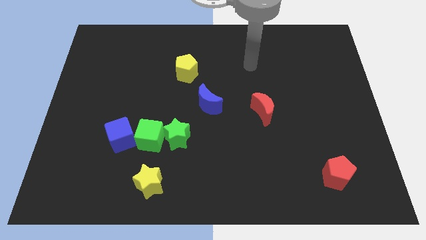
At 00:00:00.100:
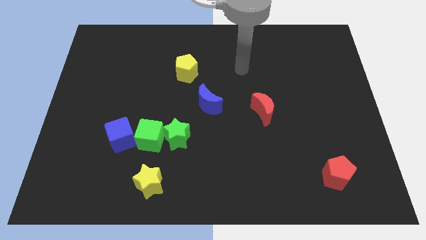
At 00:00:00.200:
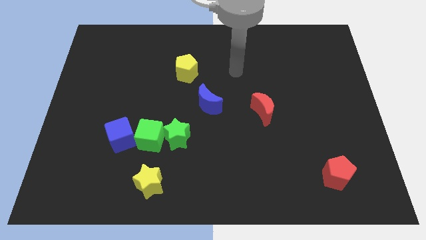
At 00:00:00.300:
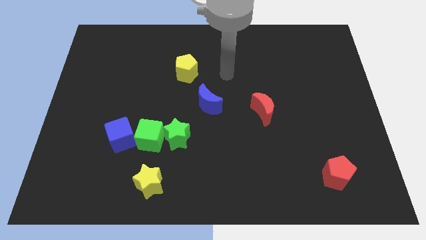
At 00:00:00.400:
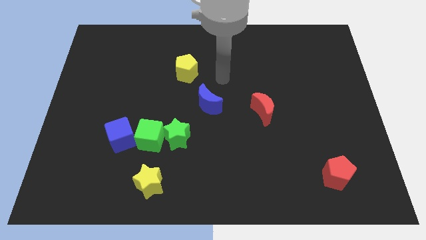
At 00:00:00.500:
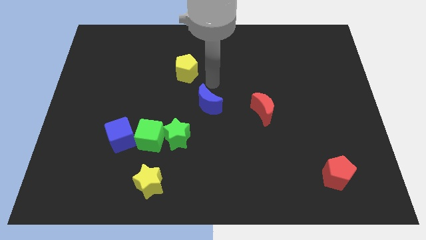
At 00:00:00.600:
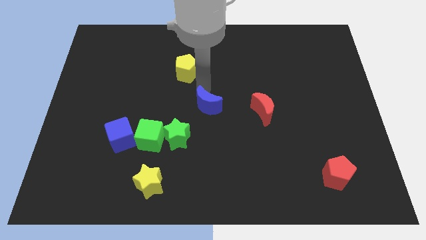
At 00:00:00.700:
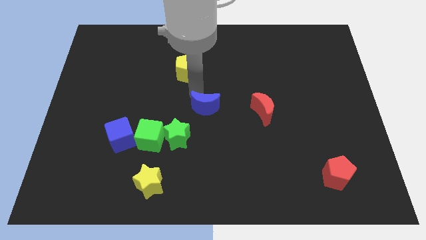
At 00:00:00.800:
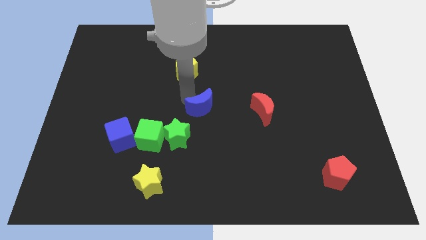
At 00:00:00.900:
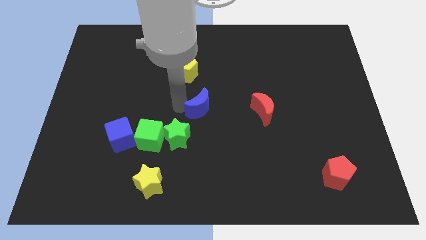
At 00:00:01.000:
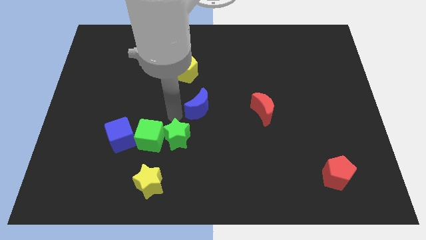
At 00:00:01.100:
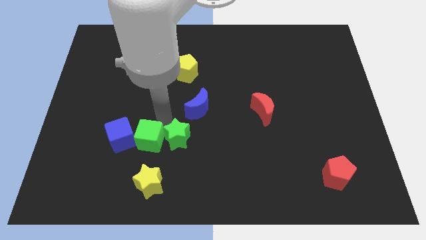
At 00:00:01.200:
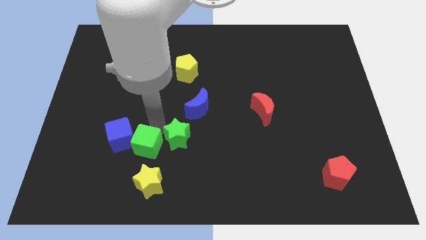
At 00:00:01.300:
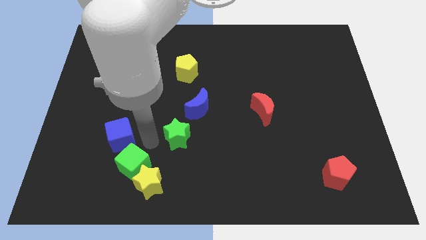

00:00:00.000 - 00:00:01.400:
separate the green star from the green cube

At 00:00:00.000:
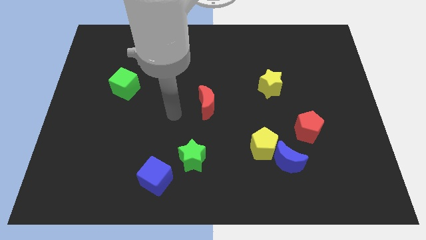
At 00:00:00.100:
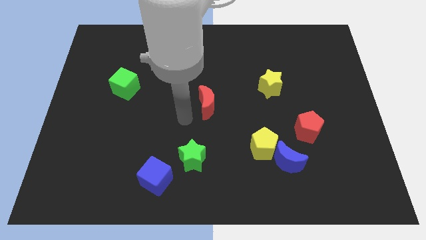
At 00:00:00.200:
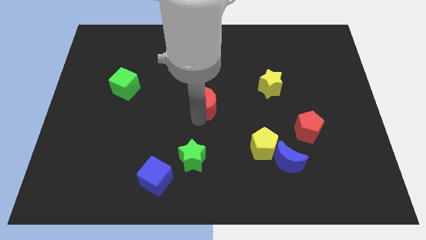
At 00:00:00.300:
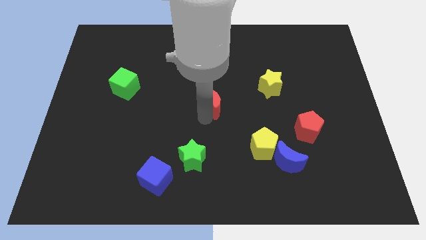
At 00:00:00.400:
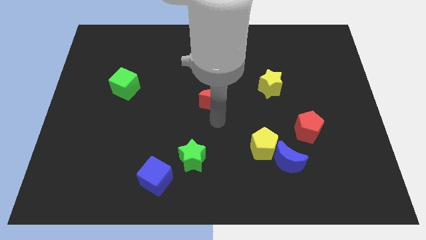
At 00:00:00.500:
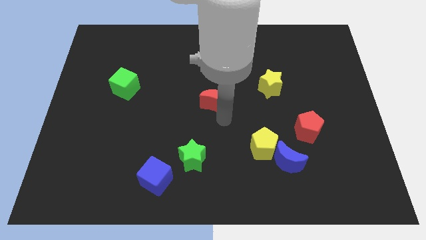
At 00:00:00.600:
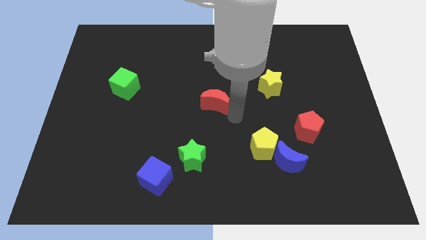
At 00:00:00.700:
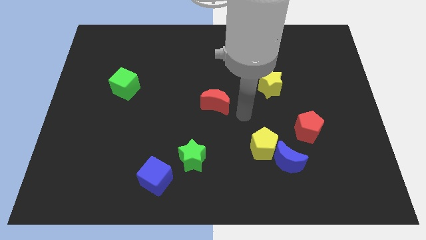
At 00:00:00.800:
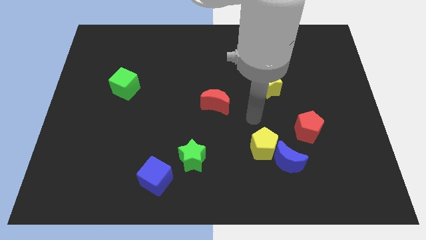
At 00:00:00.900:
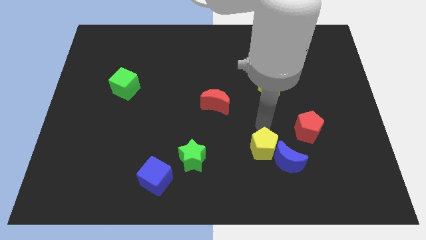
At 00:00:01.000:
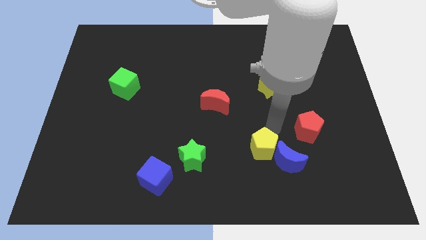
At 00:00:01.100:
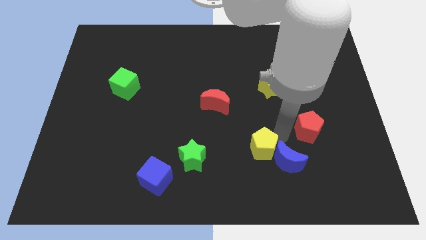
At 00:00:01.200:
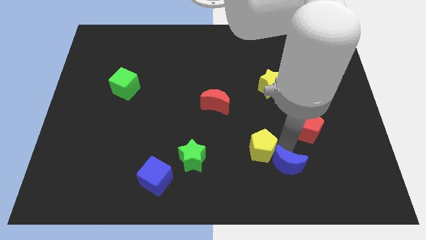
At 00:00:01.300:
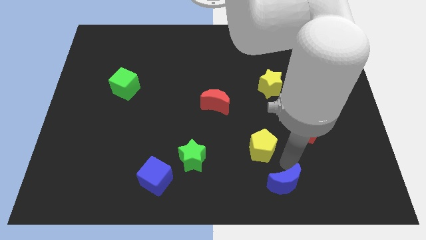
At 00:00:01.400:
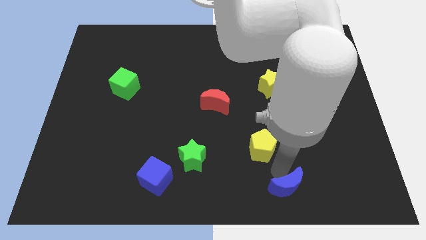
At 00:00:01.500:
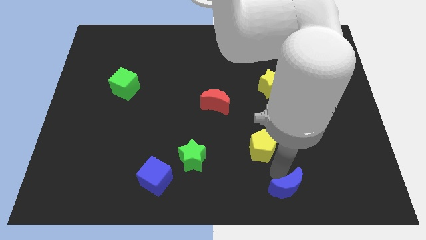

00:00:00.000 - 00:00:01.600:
separate the yellow pentagon from the blue moon

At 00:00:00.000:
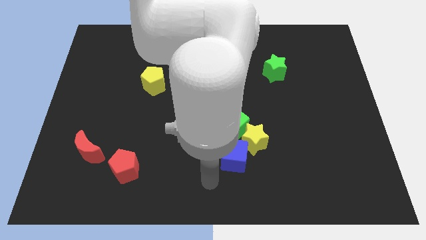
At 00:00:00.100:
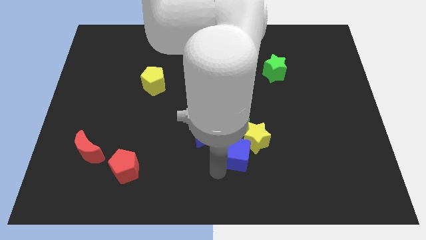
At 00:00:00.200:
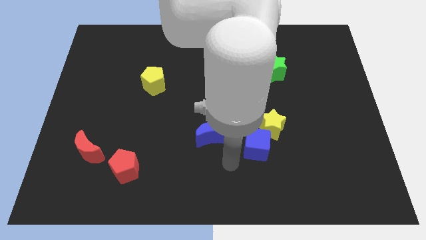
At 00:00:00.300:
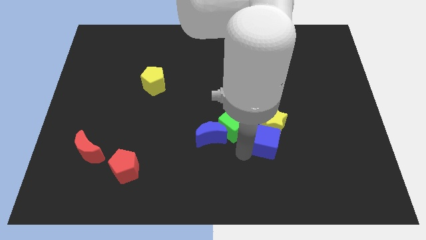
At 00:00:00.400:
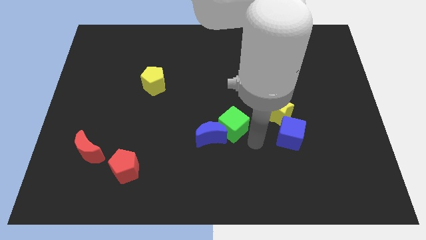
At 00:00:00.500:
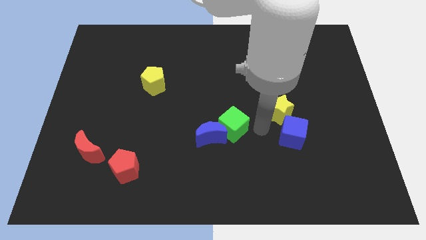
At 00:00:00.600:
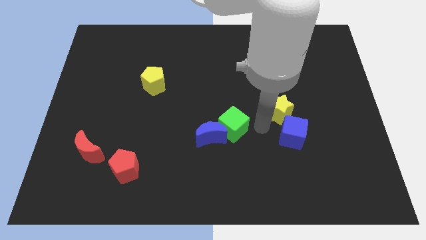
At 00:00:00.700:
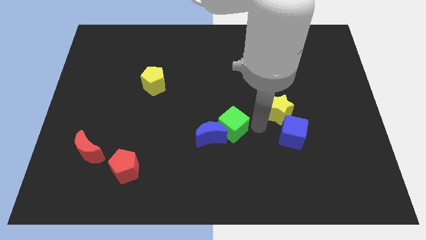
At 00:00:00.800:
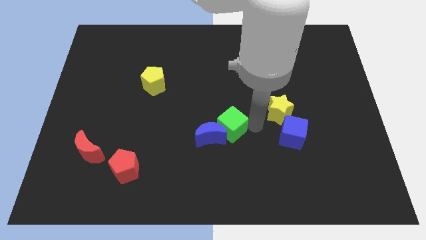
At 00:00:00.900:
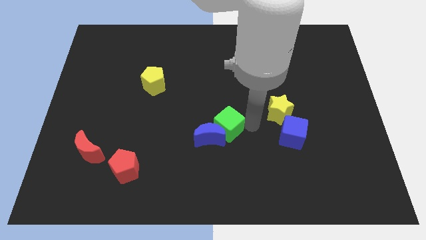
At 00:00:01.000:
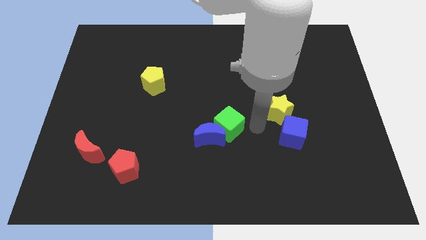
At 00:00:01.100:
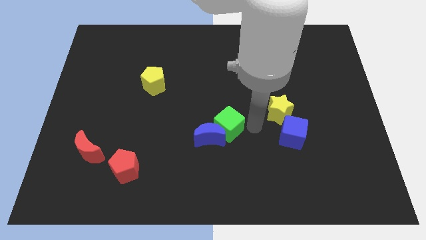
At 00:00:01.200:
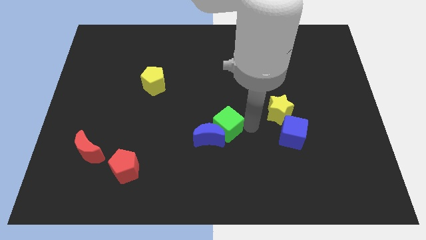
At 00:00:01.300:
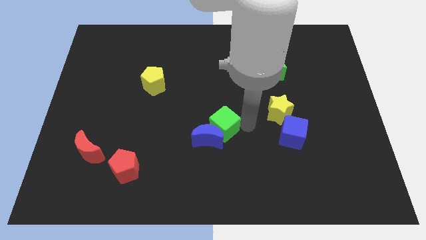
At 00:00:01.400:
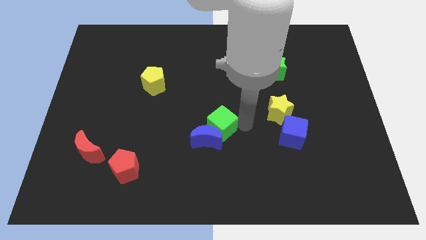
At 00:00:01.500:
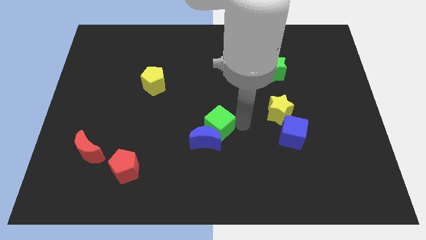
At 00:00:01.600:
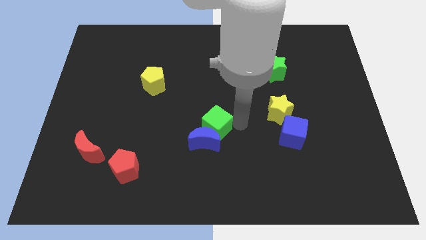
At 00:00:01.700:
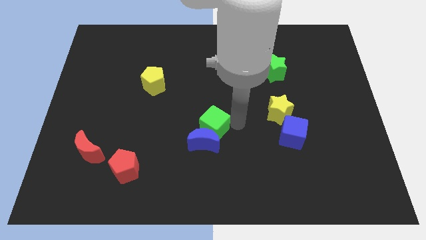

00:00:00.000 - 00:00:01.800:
move the green cube away from the blue moon, yellow star, and blue cube

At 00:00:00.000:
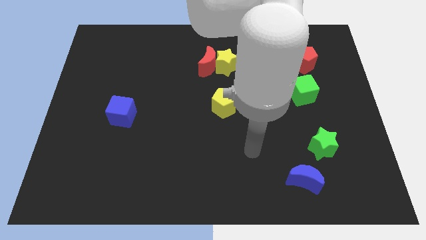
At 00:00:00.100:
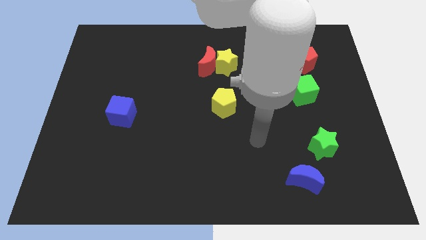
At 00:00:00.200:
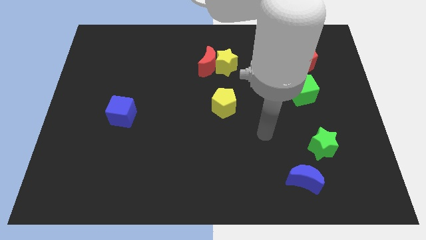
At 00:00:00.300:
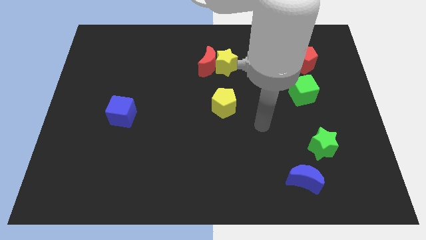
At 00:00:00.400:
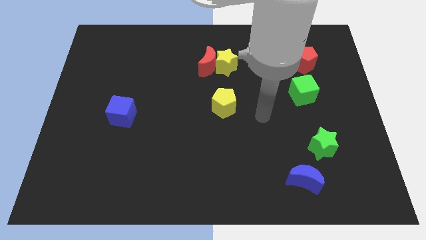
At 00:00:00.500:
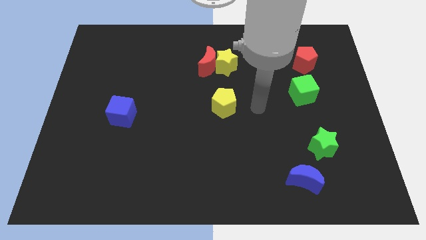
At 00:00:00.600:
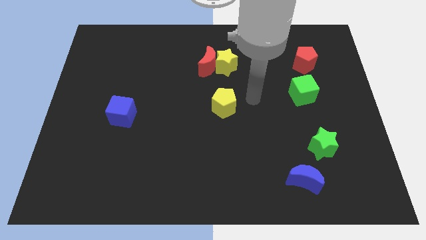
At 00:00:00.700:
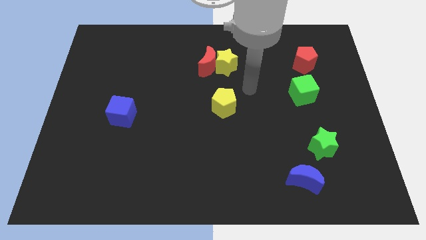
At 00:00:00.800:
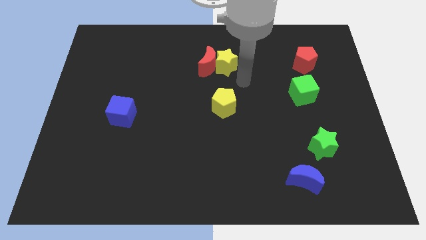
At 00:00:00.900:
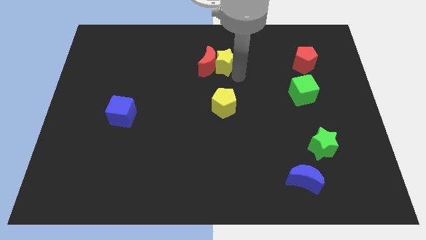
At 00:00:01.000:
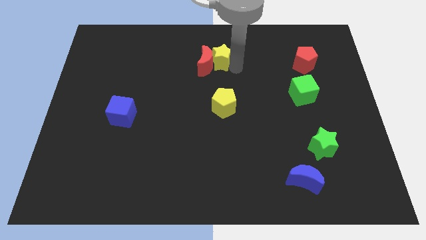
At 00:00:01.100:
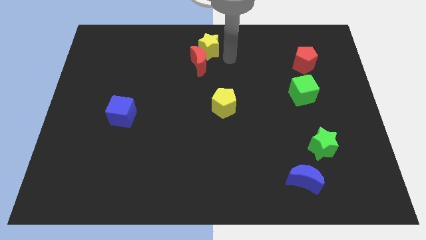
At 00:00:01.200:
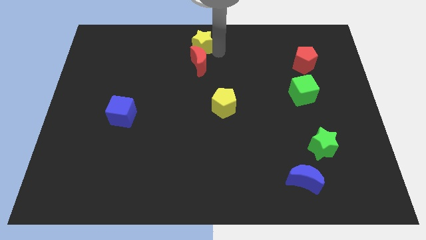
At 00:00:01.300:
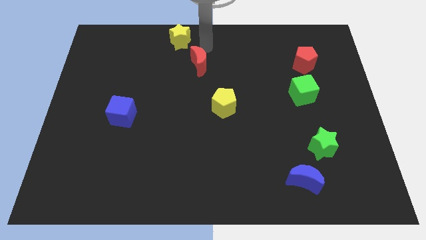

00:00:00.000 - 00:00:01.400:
separate the red moon from the yellow star

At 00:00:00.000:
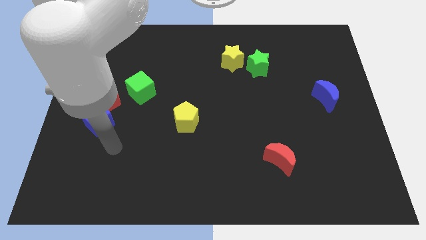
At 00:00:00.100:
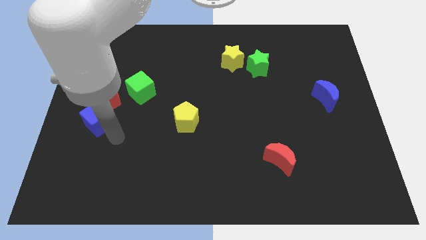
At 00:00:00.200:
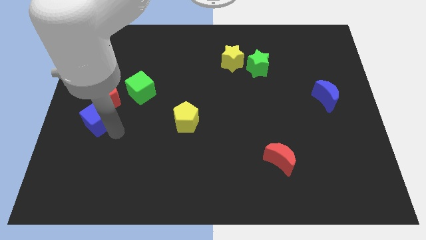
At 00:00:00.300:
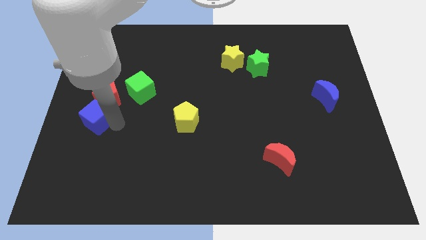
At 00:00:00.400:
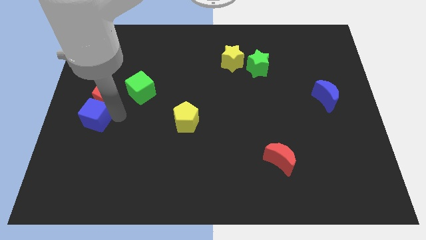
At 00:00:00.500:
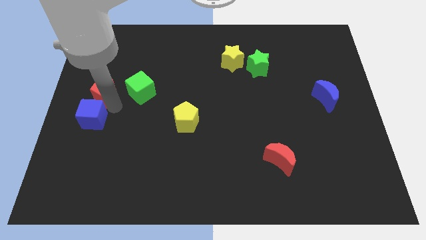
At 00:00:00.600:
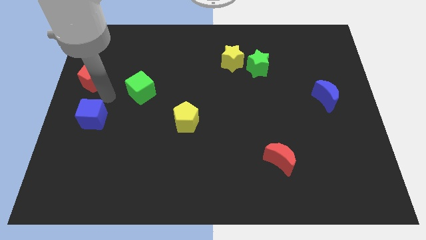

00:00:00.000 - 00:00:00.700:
move the blue cube away from the red pentagon

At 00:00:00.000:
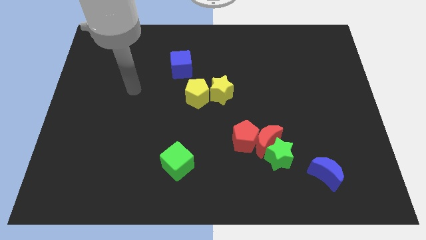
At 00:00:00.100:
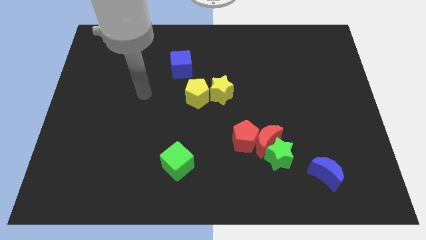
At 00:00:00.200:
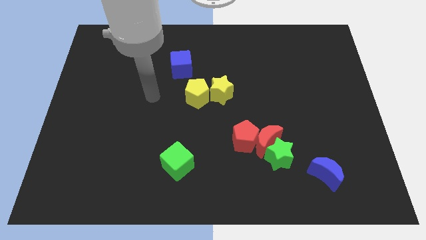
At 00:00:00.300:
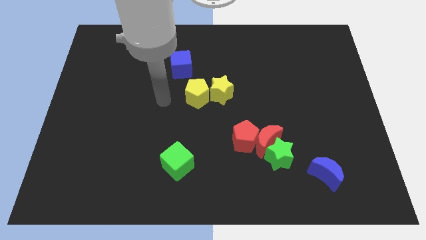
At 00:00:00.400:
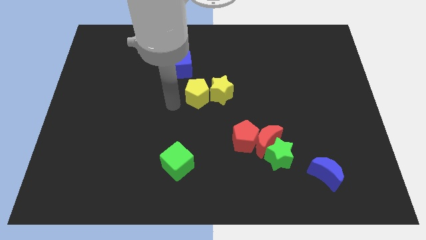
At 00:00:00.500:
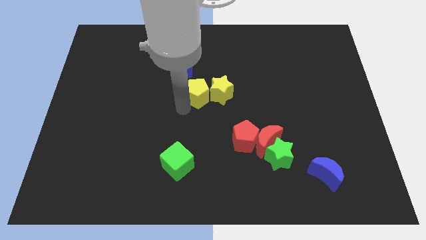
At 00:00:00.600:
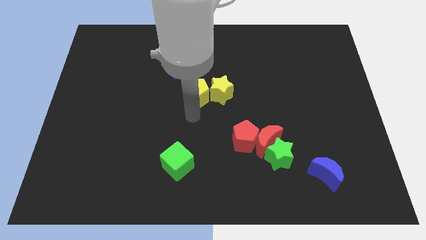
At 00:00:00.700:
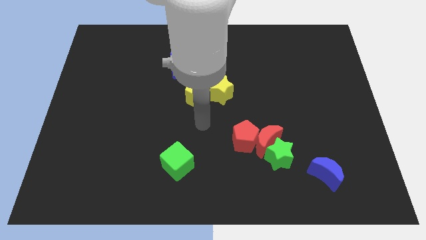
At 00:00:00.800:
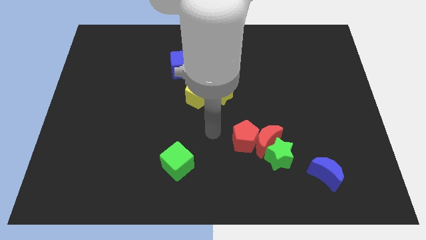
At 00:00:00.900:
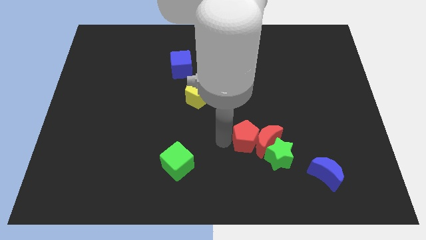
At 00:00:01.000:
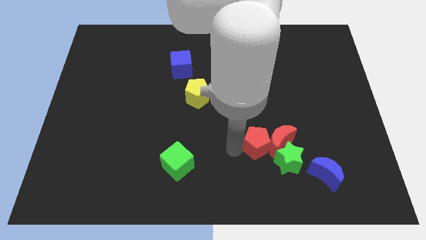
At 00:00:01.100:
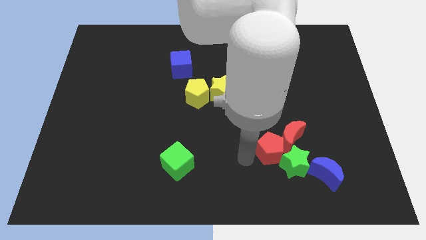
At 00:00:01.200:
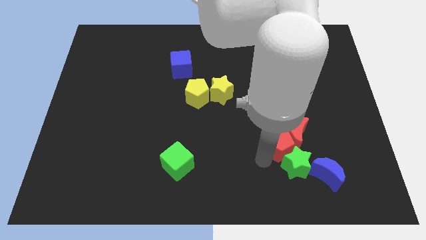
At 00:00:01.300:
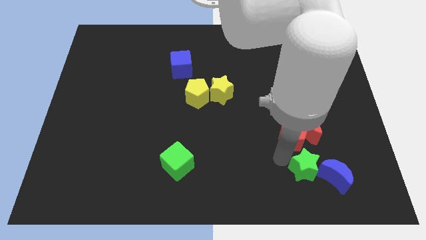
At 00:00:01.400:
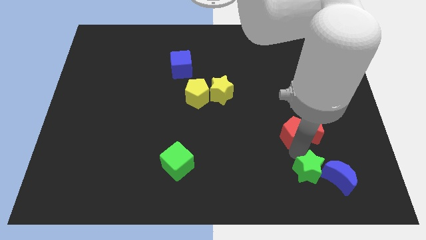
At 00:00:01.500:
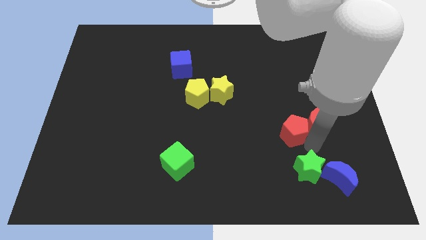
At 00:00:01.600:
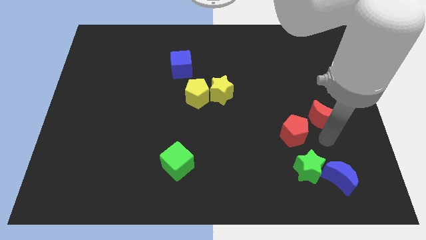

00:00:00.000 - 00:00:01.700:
move the red moon away from the red pentagon and green star

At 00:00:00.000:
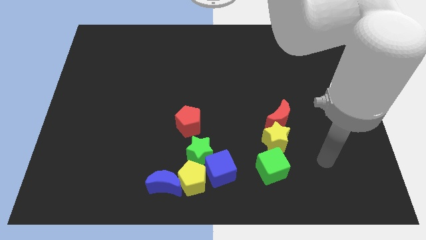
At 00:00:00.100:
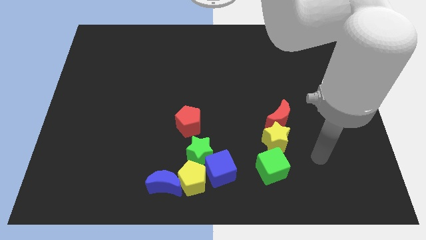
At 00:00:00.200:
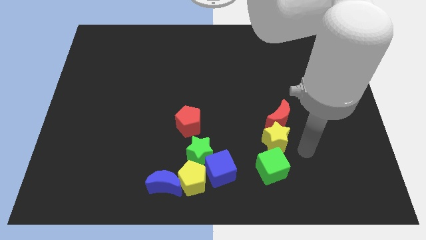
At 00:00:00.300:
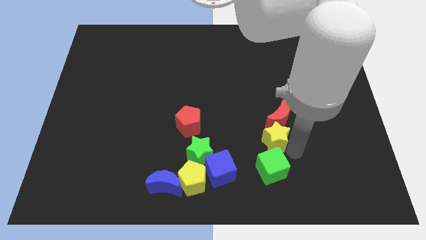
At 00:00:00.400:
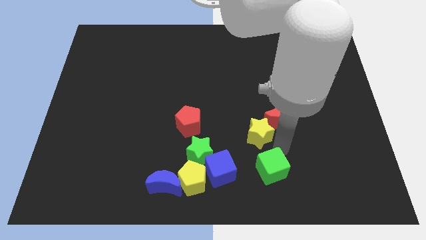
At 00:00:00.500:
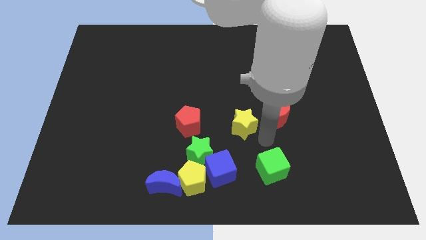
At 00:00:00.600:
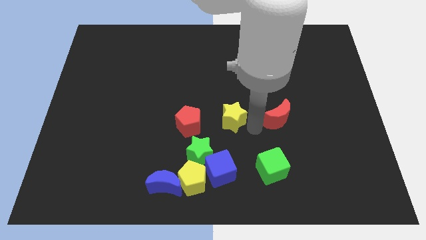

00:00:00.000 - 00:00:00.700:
move the red moon away from the yellow star
